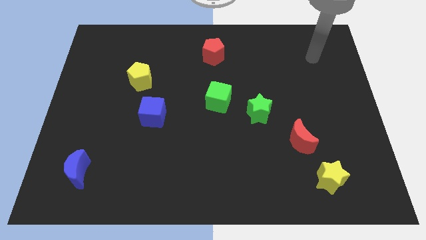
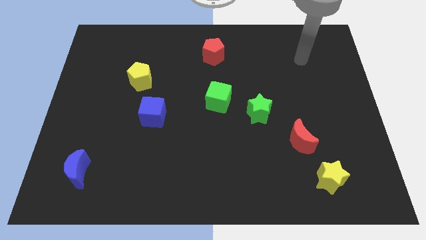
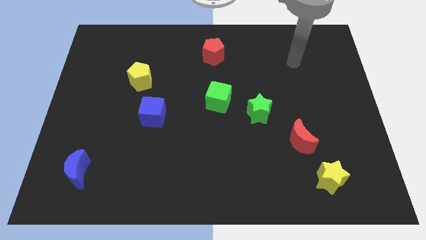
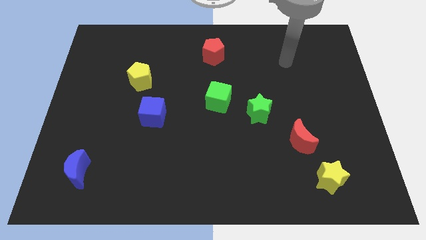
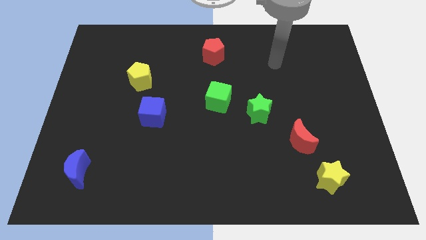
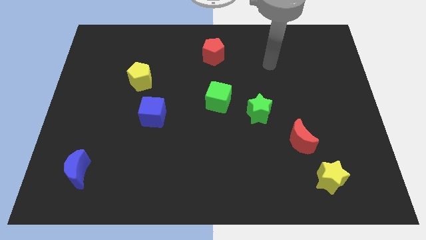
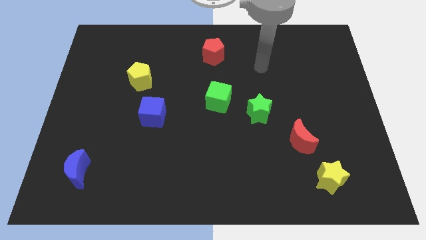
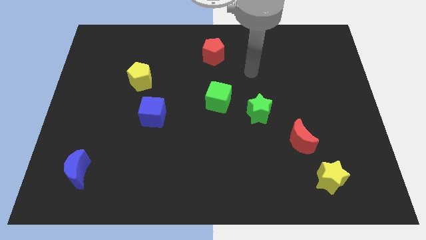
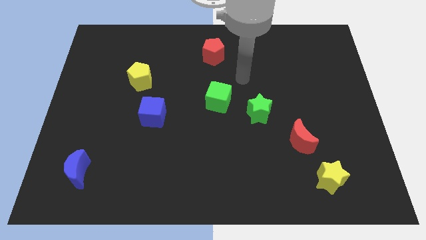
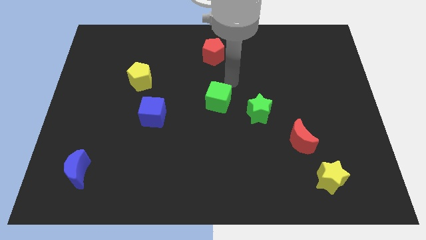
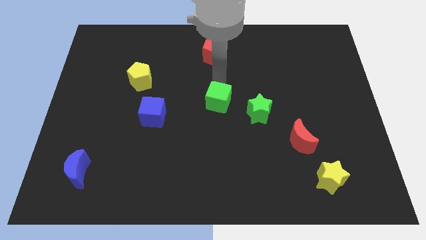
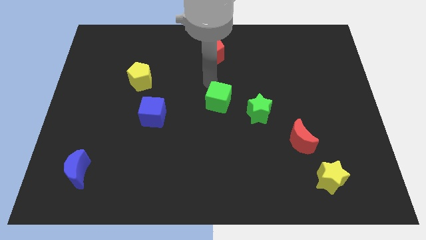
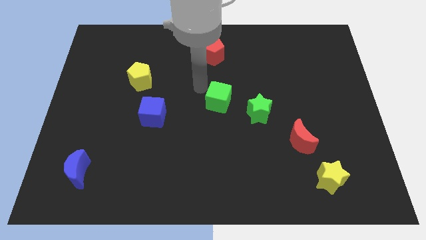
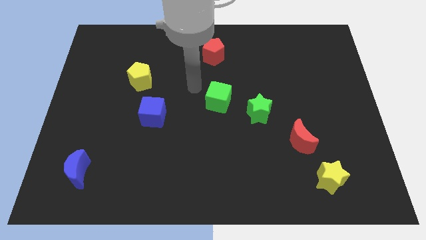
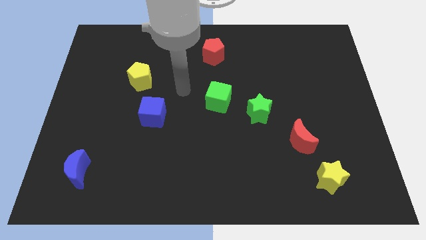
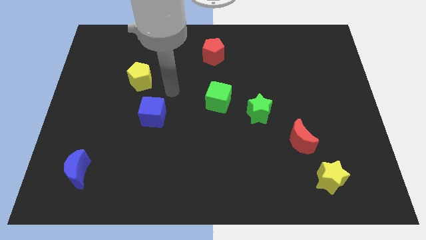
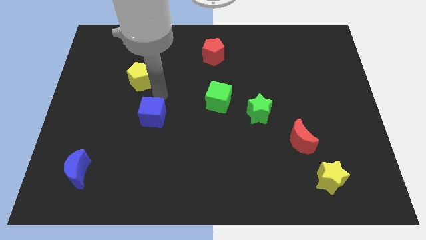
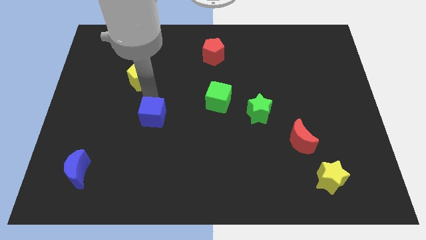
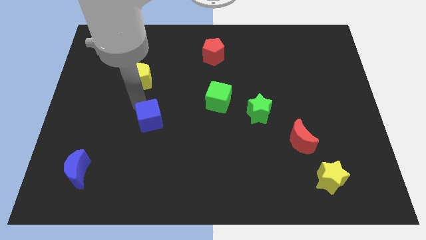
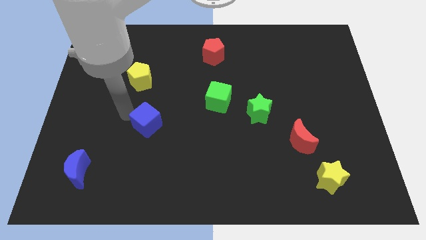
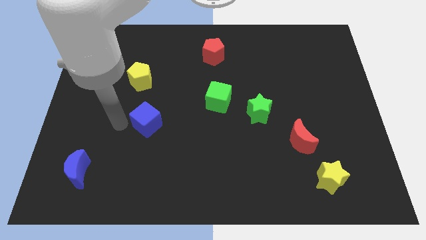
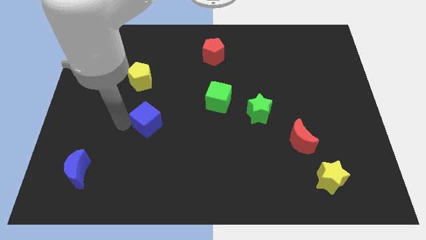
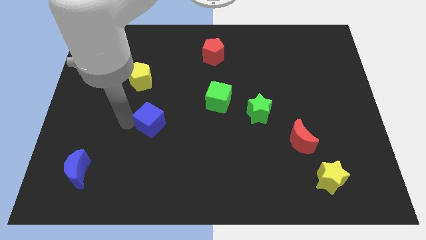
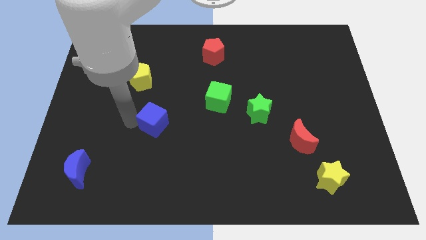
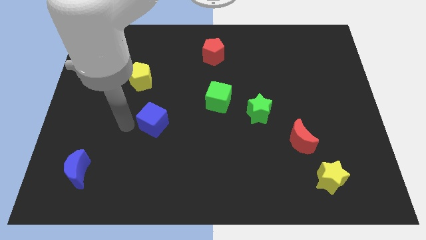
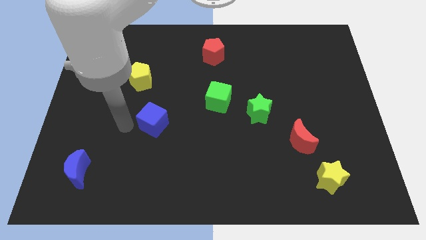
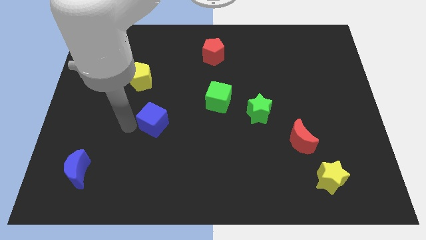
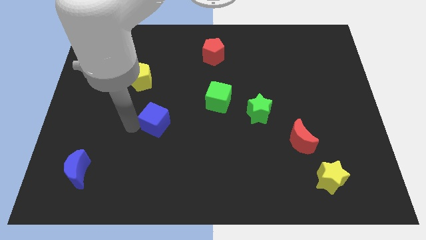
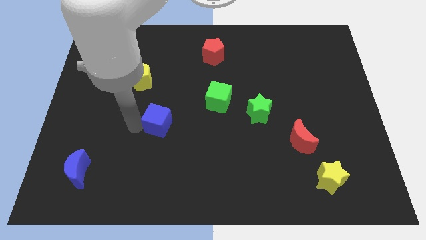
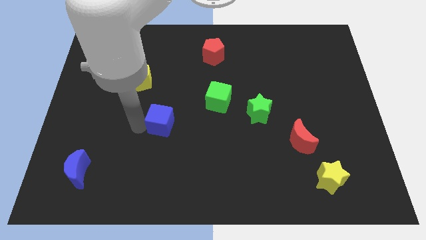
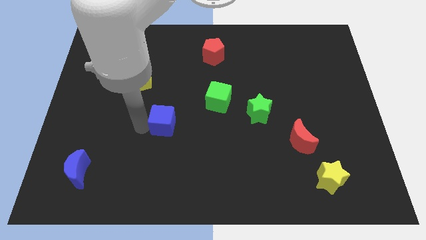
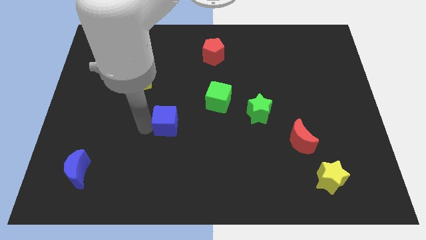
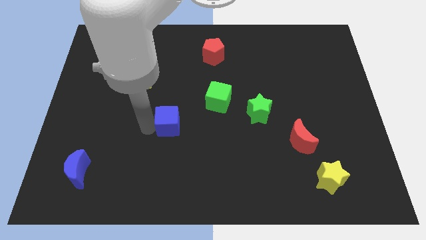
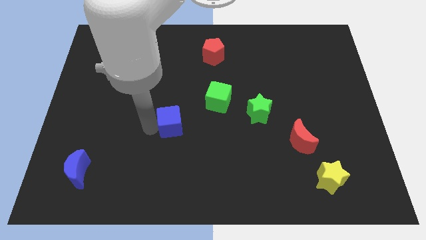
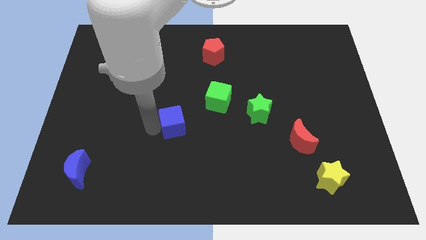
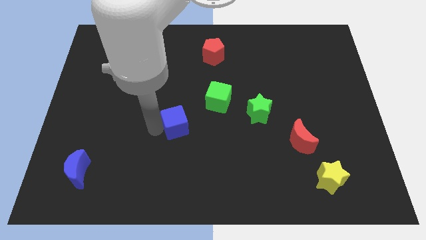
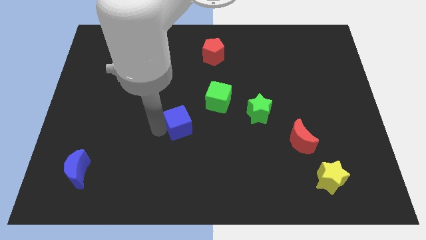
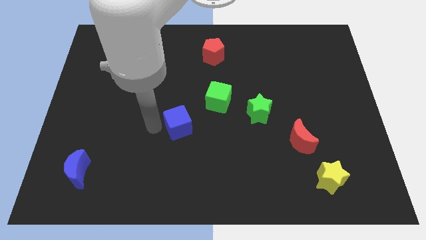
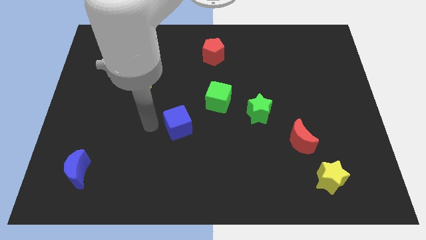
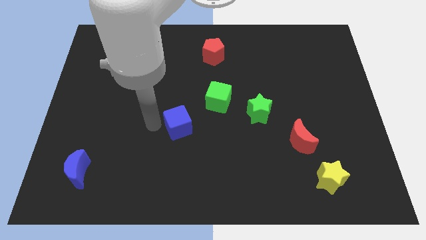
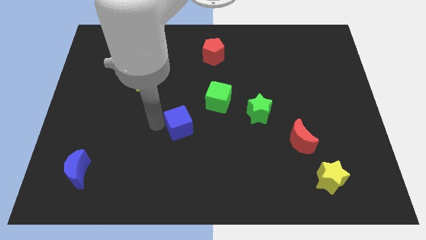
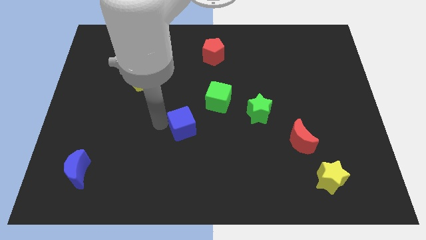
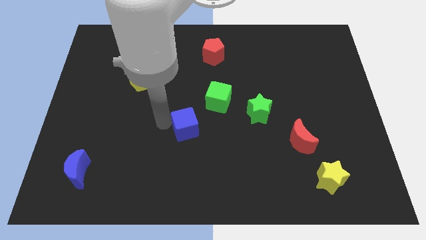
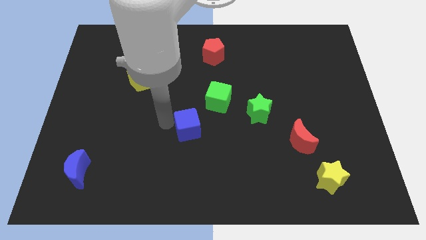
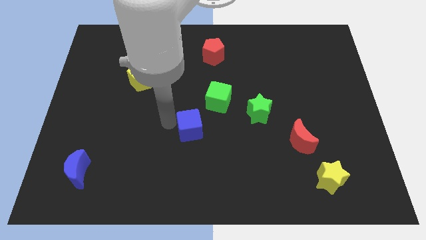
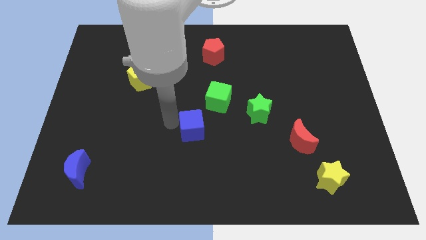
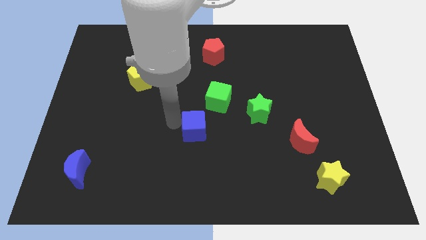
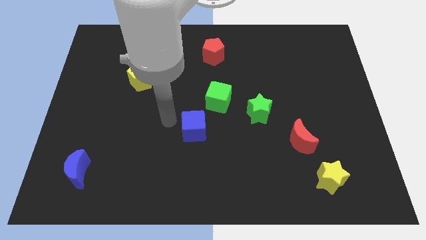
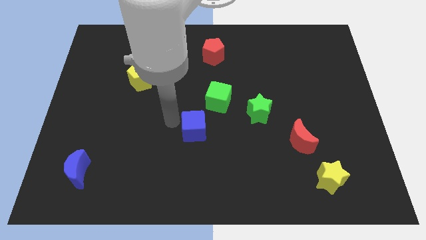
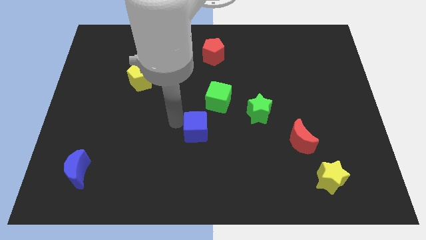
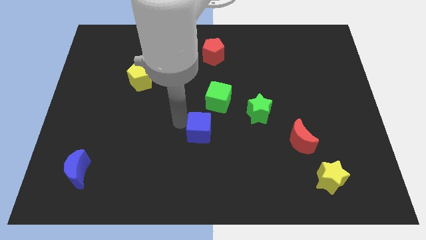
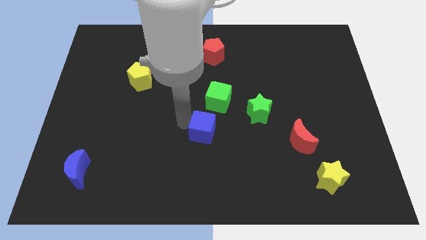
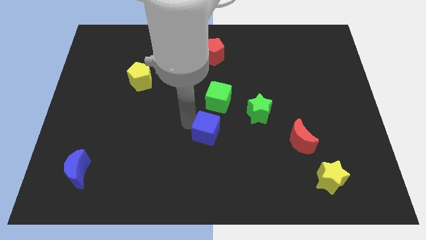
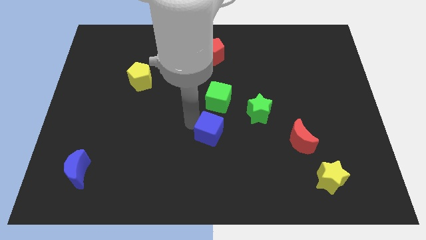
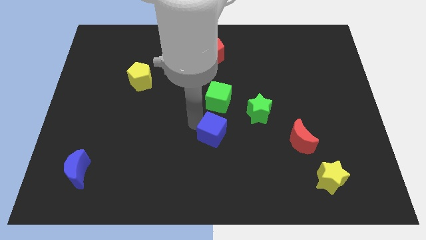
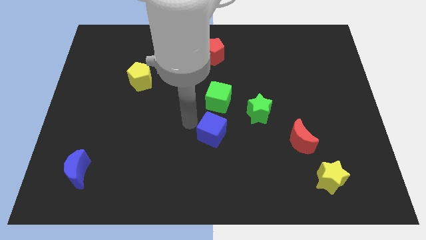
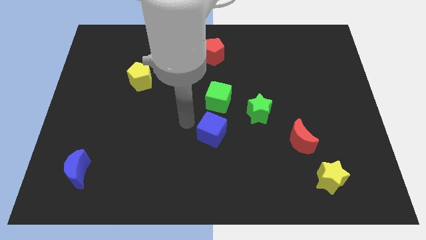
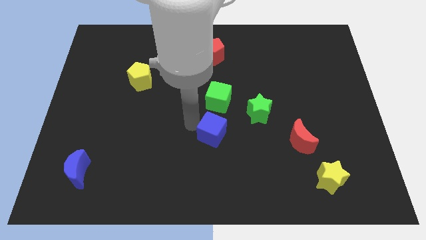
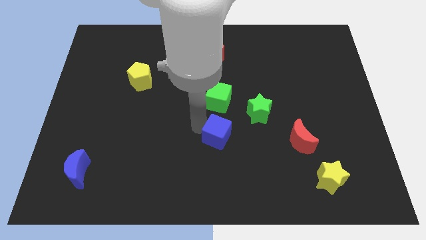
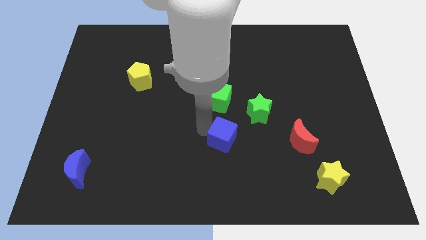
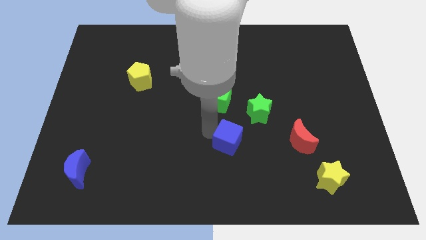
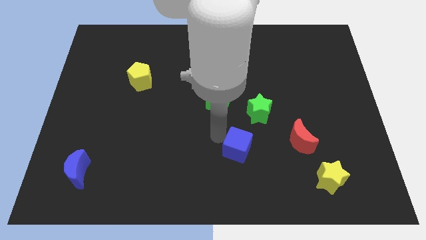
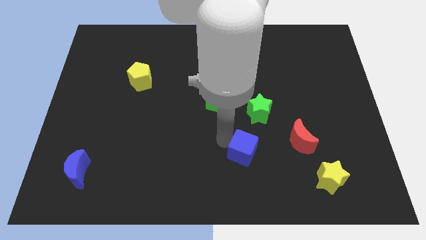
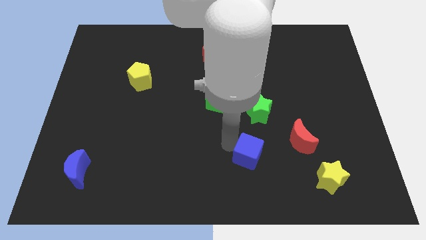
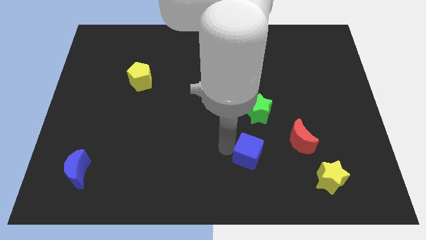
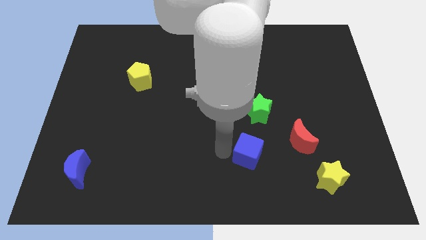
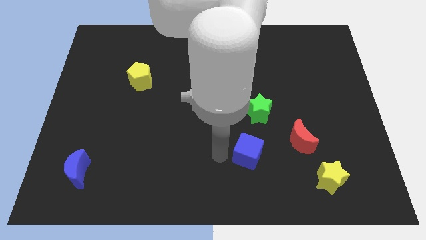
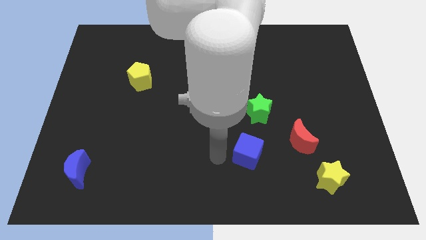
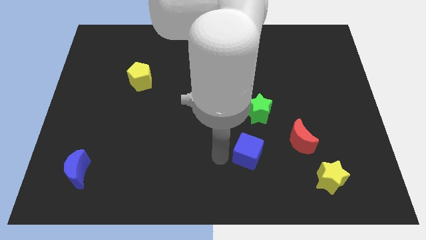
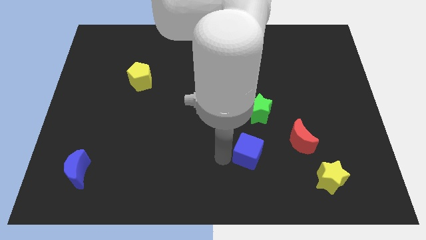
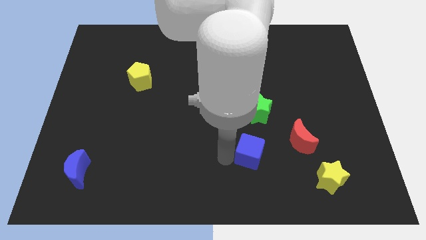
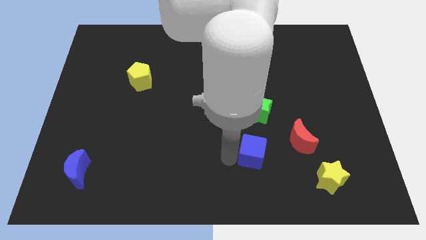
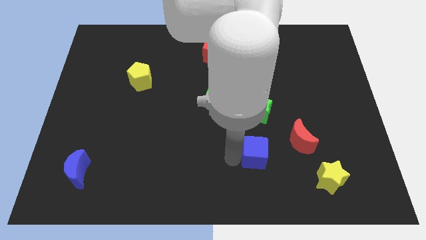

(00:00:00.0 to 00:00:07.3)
move the blue cube to the bottom left of the red moon

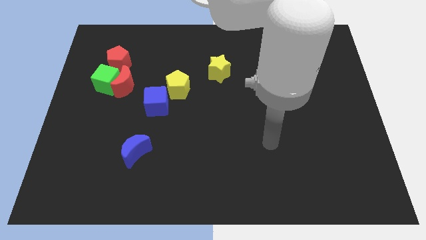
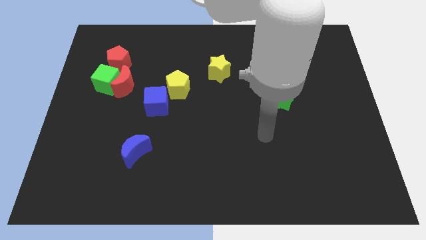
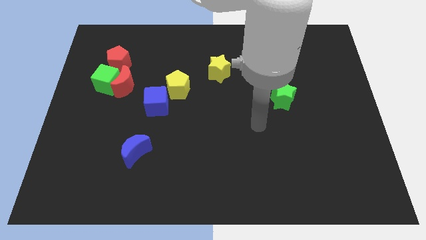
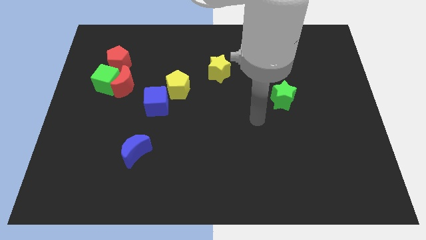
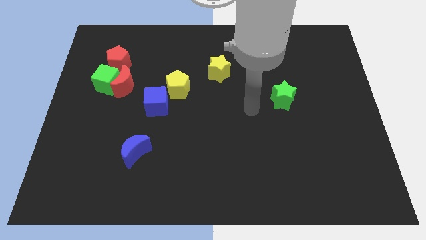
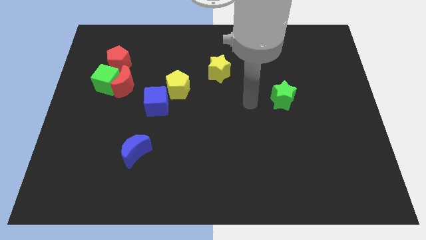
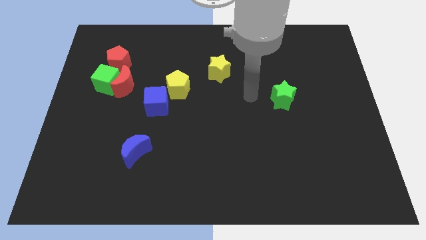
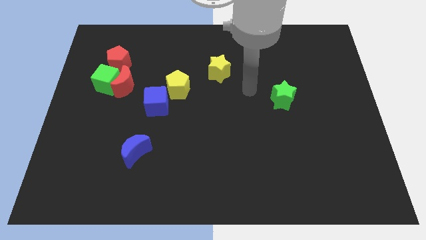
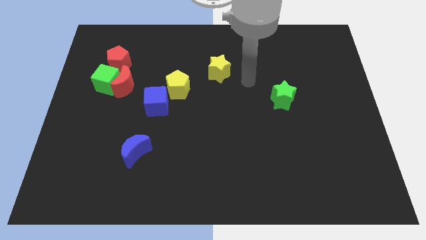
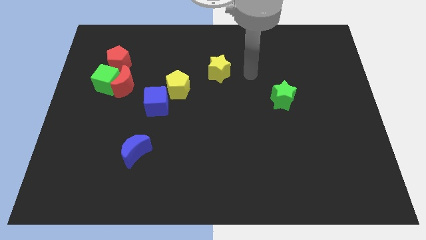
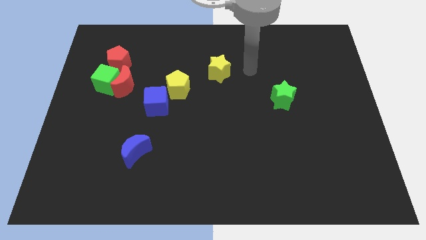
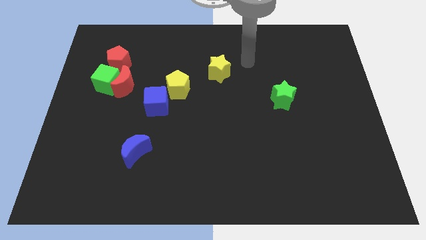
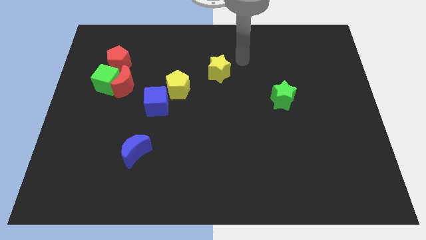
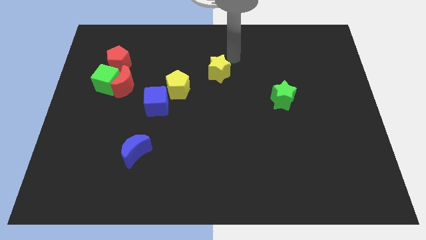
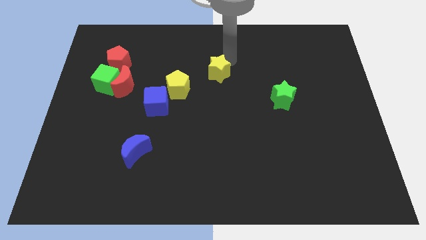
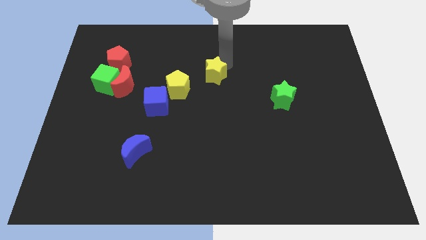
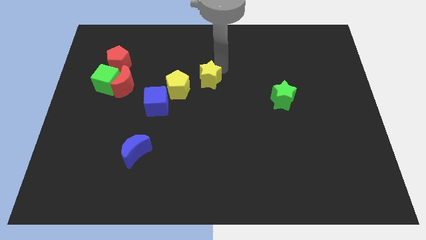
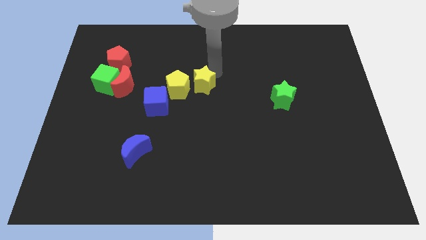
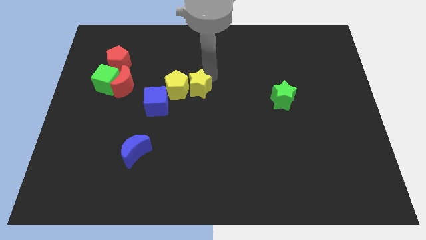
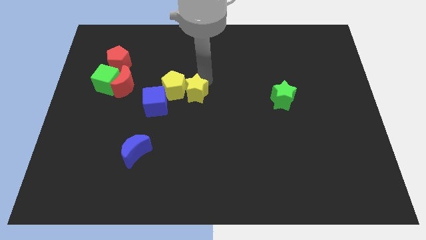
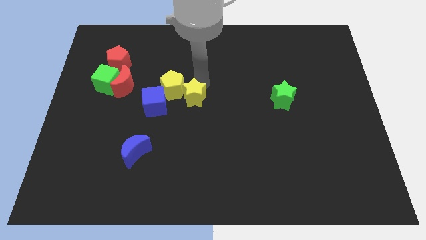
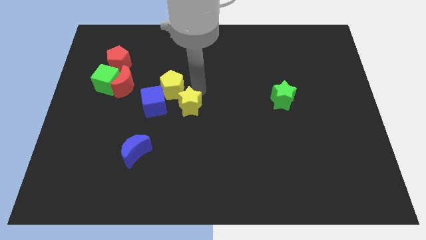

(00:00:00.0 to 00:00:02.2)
put the yellow star to the bottom of the yellow pentagon
